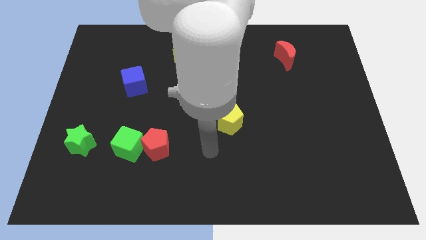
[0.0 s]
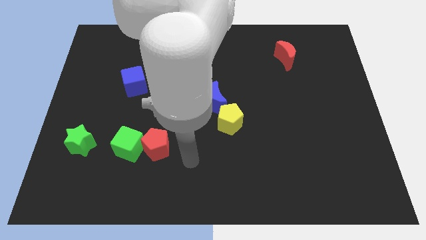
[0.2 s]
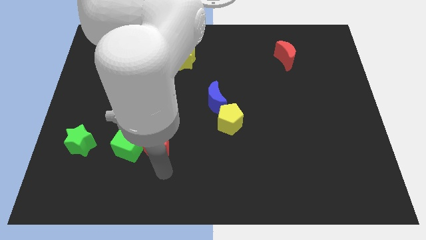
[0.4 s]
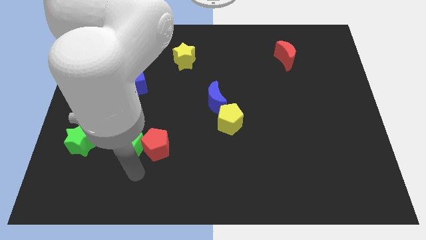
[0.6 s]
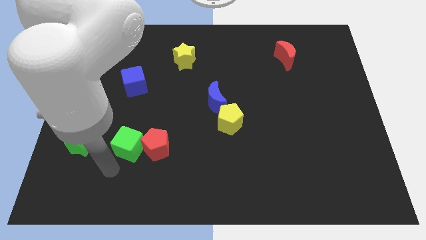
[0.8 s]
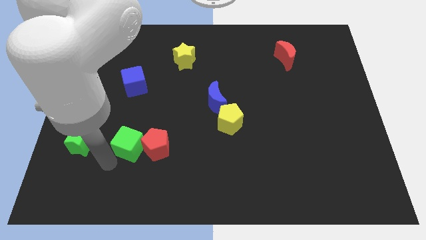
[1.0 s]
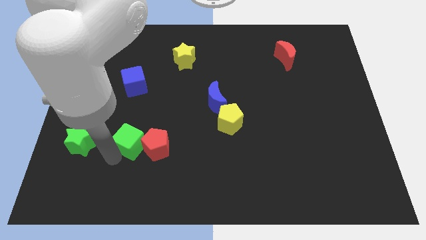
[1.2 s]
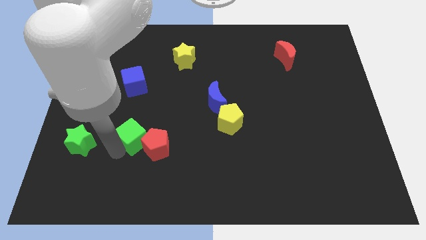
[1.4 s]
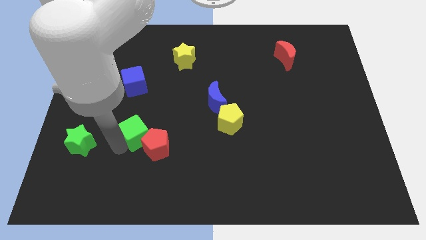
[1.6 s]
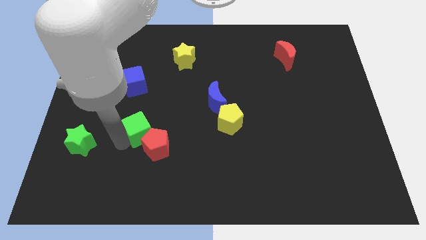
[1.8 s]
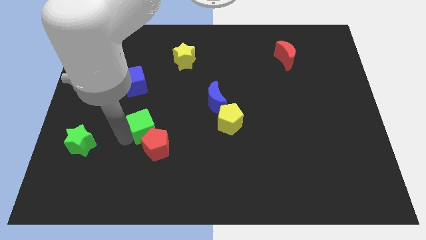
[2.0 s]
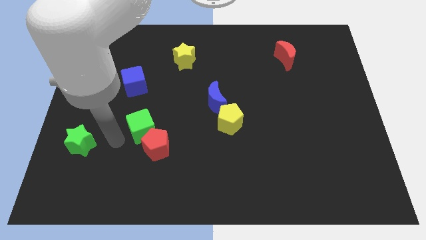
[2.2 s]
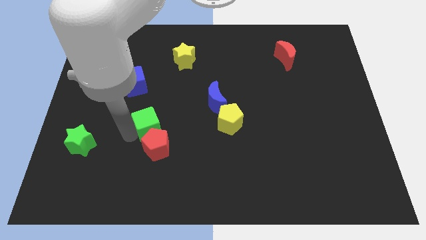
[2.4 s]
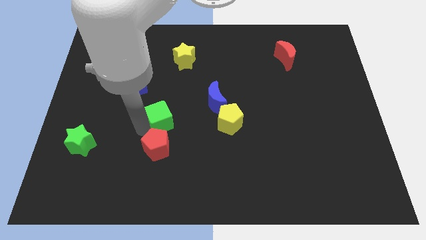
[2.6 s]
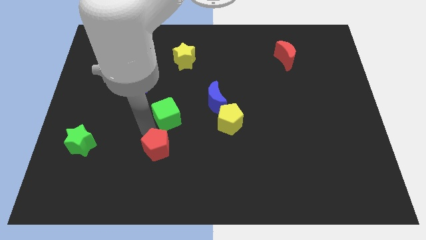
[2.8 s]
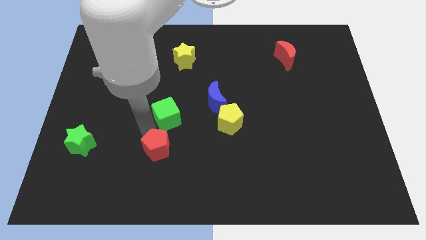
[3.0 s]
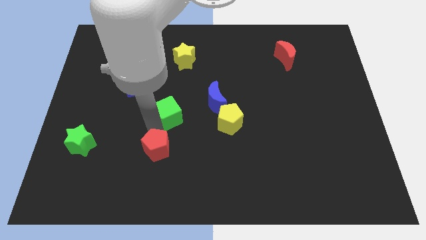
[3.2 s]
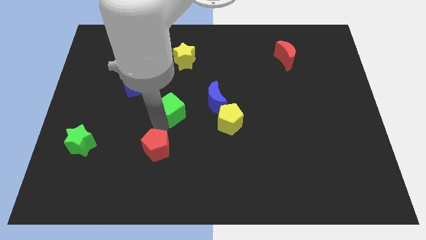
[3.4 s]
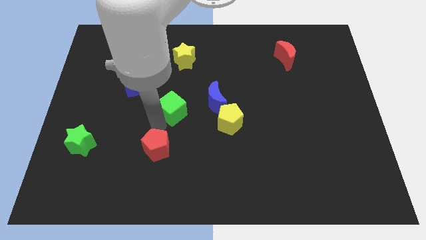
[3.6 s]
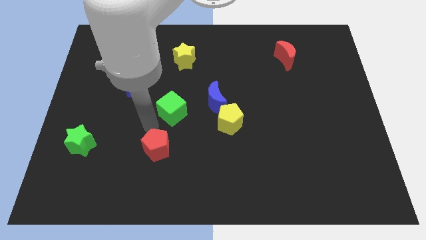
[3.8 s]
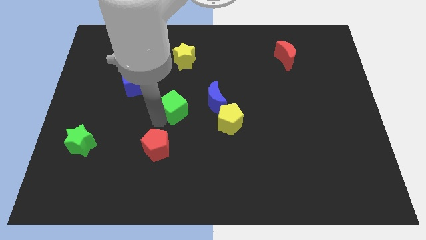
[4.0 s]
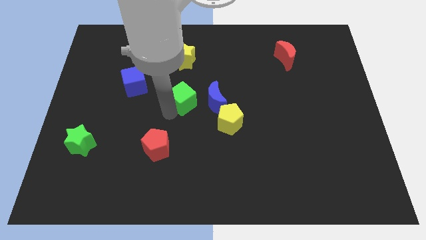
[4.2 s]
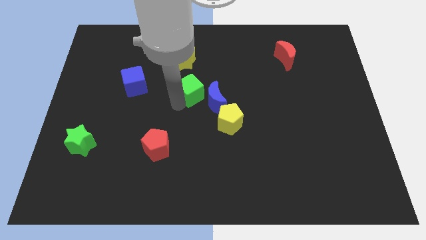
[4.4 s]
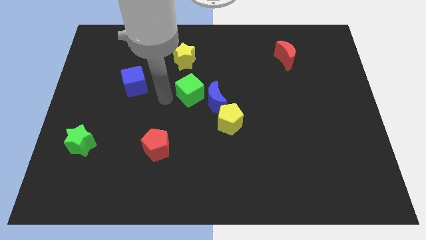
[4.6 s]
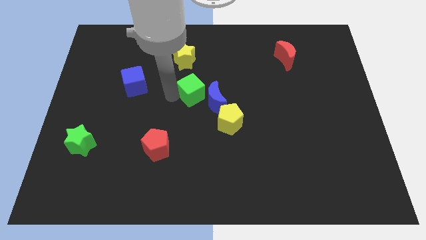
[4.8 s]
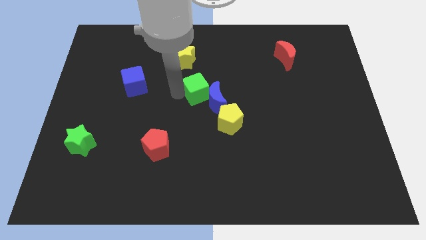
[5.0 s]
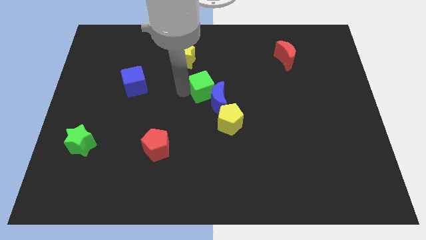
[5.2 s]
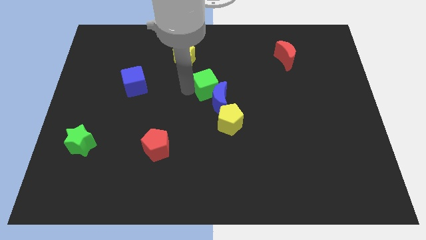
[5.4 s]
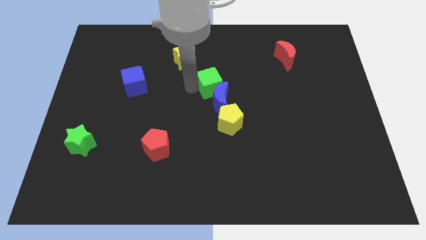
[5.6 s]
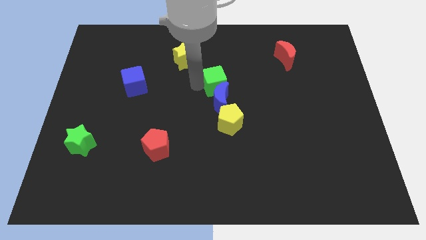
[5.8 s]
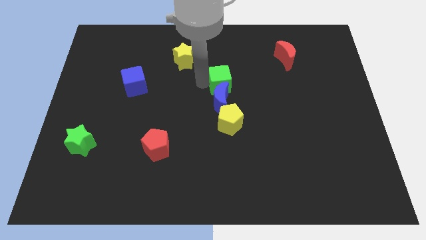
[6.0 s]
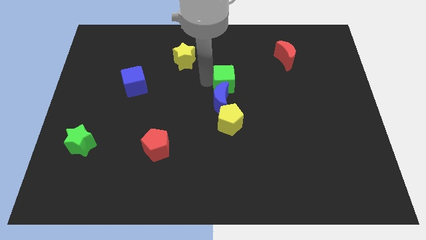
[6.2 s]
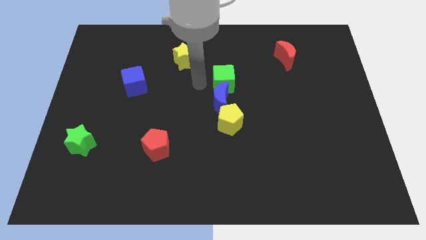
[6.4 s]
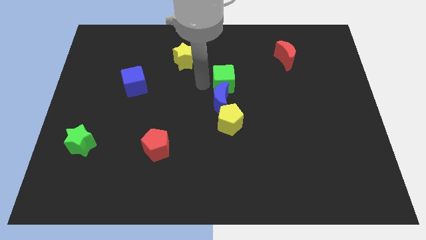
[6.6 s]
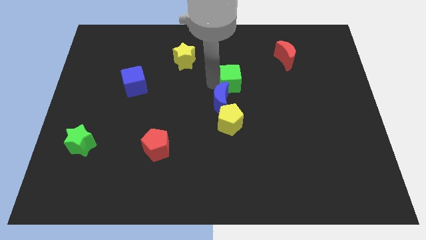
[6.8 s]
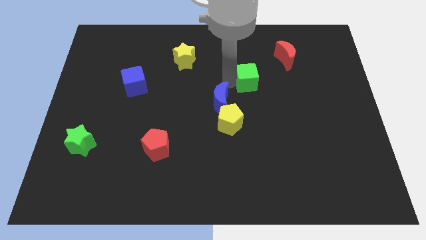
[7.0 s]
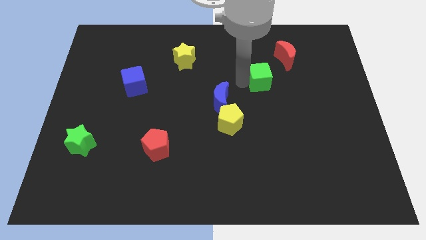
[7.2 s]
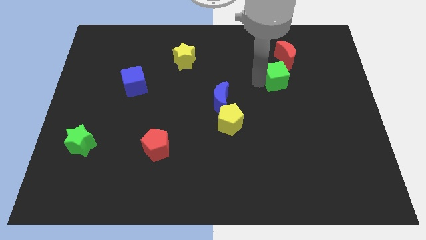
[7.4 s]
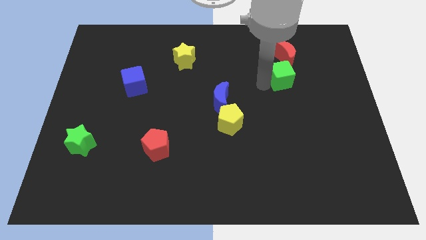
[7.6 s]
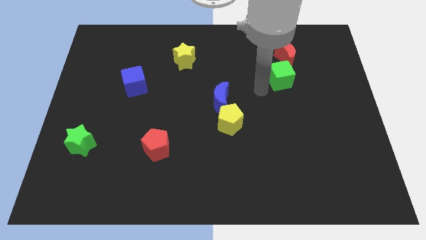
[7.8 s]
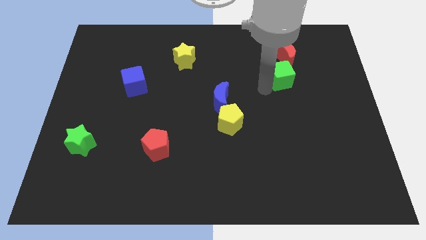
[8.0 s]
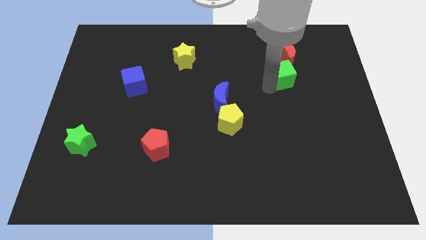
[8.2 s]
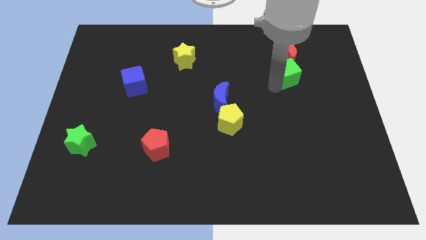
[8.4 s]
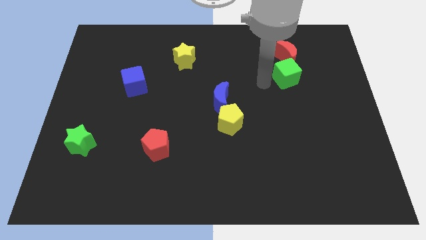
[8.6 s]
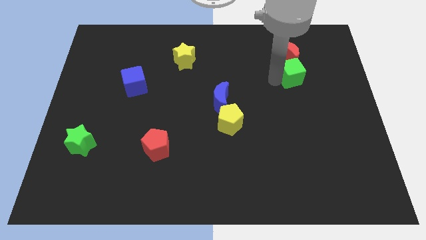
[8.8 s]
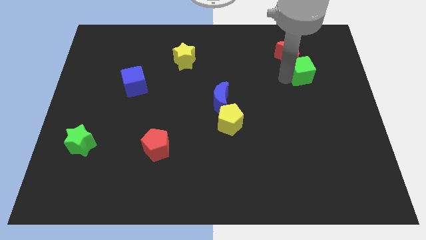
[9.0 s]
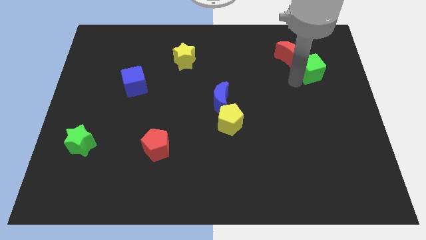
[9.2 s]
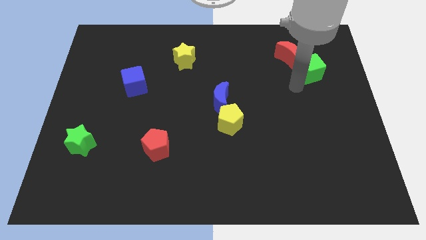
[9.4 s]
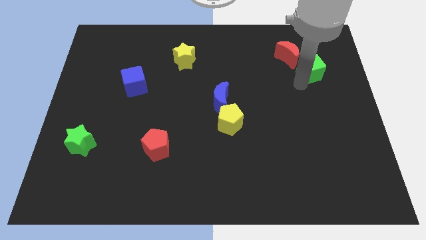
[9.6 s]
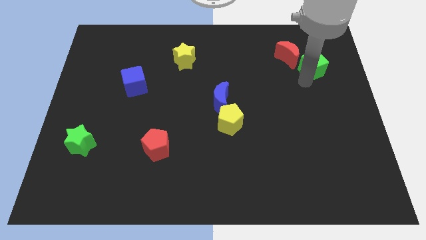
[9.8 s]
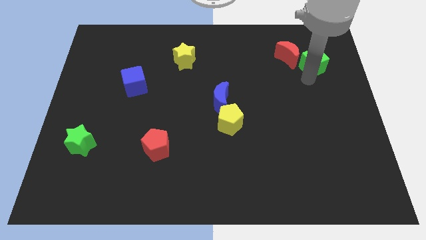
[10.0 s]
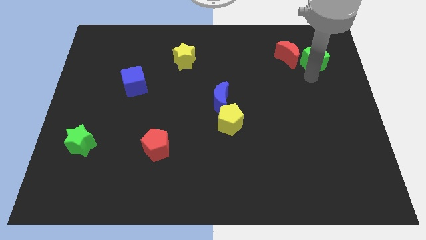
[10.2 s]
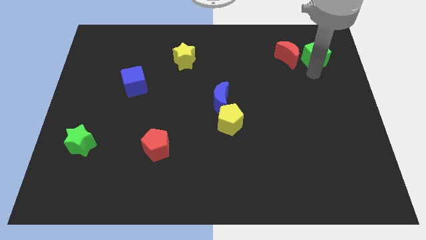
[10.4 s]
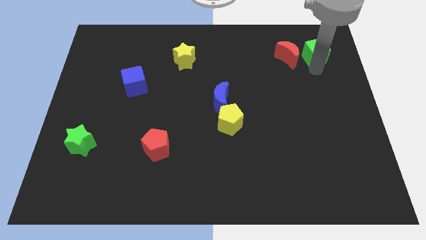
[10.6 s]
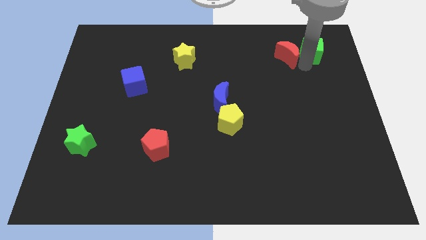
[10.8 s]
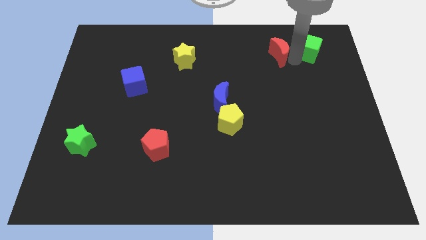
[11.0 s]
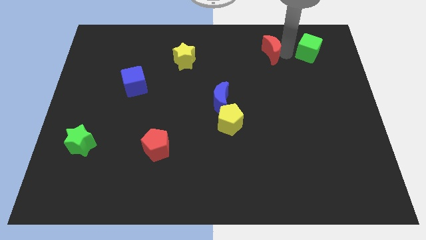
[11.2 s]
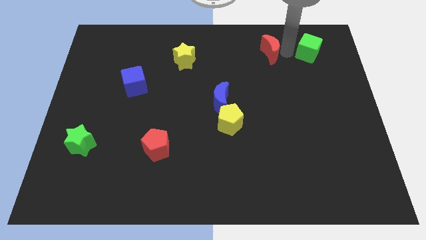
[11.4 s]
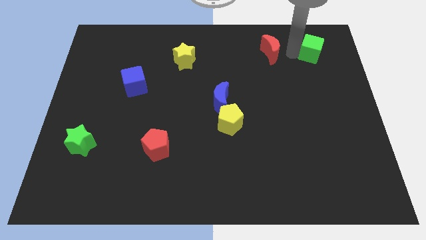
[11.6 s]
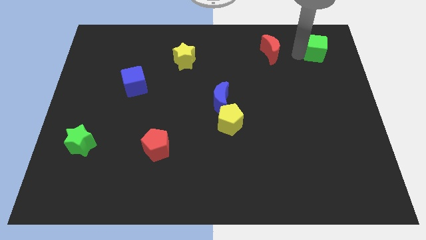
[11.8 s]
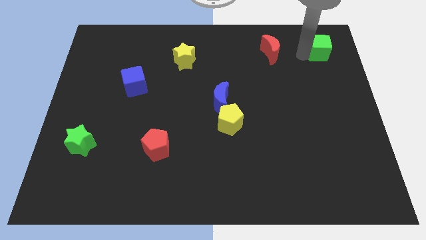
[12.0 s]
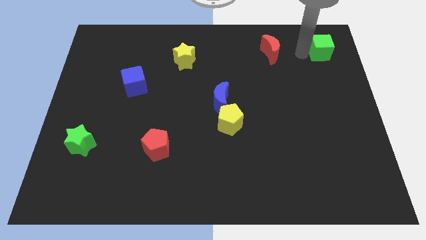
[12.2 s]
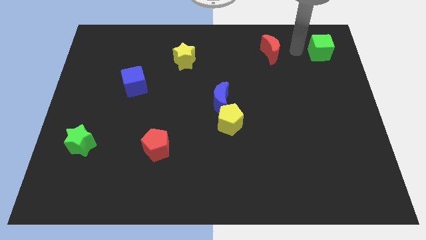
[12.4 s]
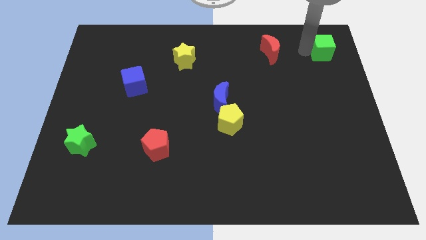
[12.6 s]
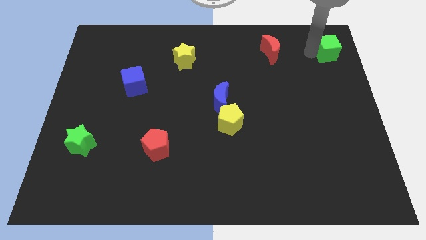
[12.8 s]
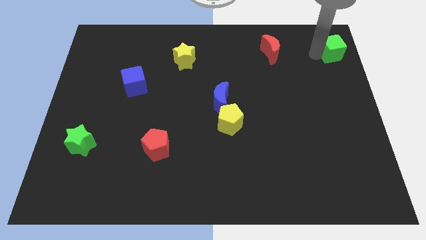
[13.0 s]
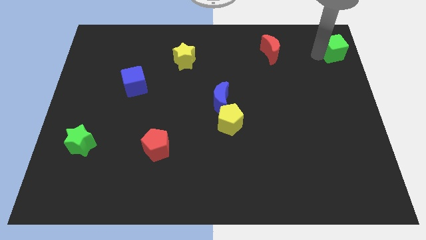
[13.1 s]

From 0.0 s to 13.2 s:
push the green cube to the top right of the board

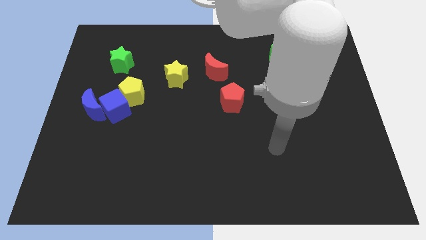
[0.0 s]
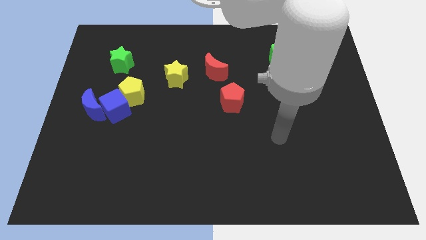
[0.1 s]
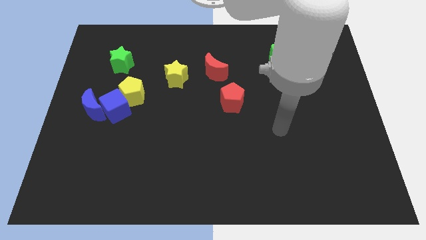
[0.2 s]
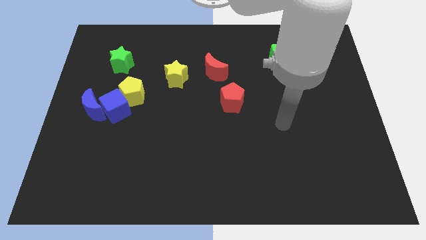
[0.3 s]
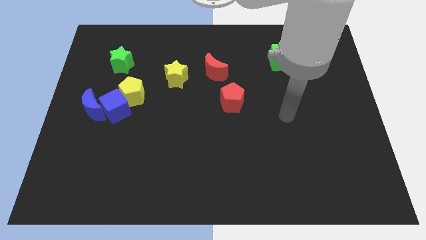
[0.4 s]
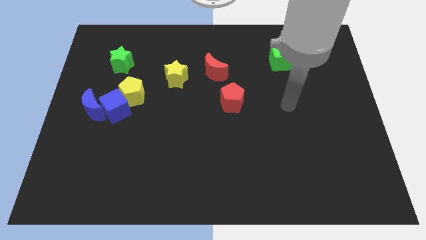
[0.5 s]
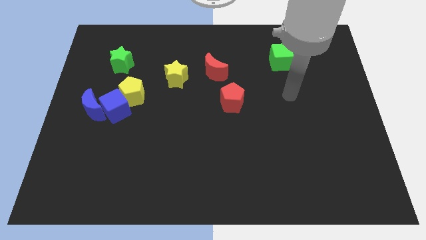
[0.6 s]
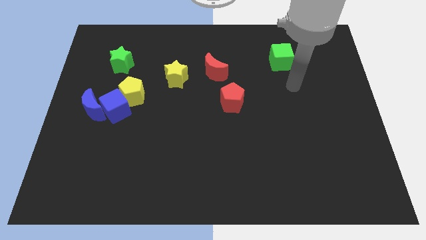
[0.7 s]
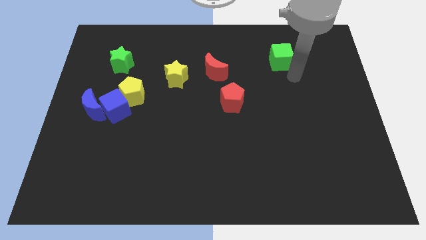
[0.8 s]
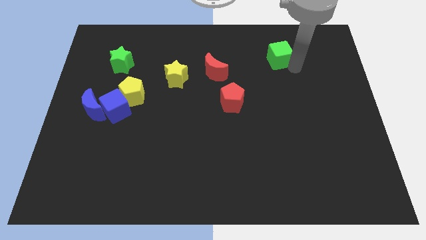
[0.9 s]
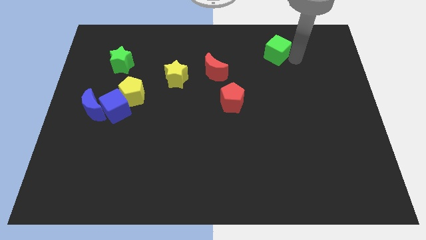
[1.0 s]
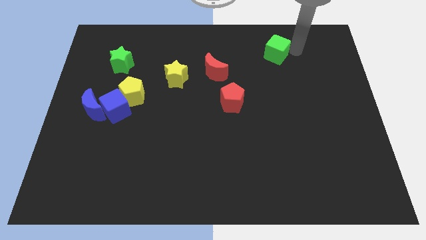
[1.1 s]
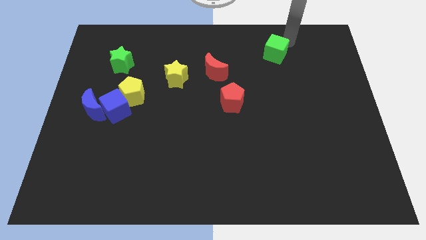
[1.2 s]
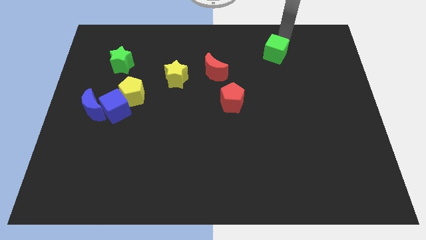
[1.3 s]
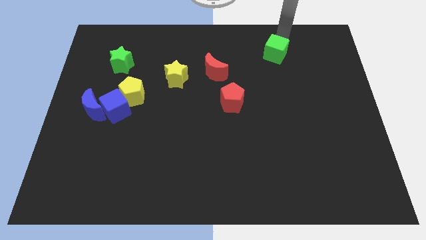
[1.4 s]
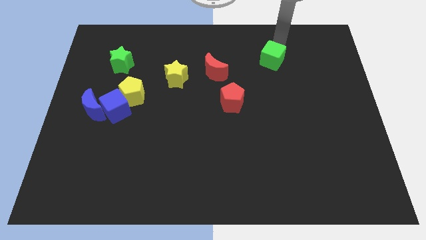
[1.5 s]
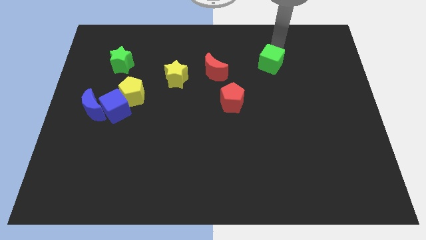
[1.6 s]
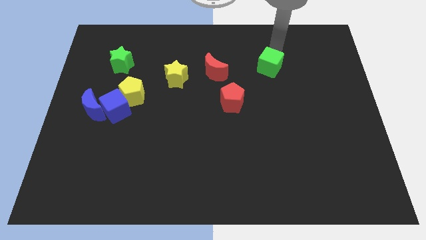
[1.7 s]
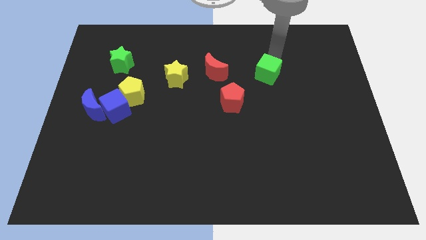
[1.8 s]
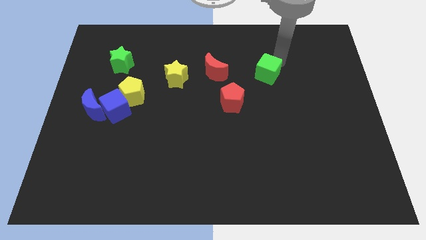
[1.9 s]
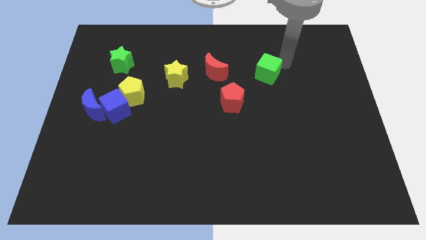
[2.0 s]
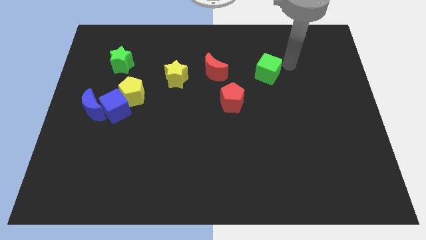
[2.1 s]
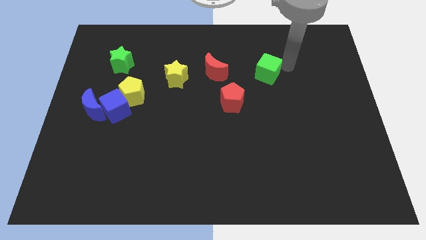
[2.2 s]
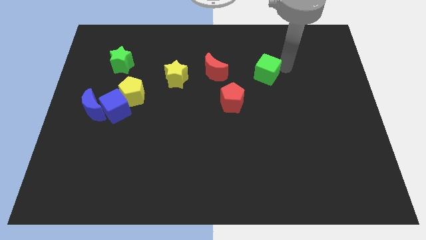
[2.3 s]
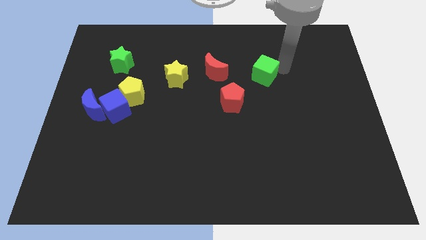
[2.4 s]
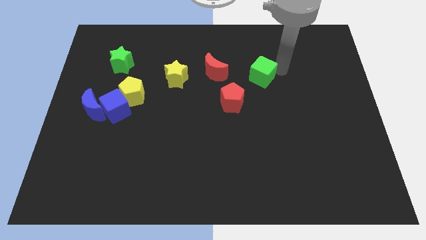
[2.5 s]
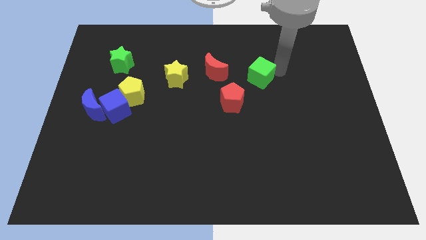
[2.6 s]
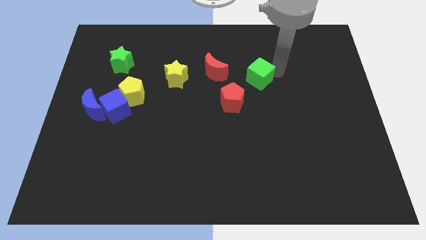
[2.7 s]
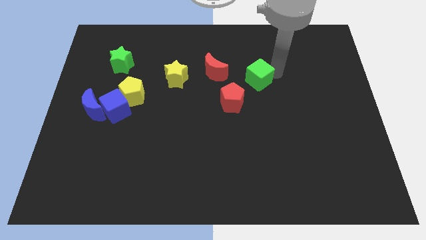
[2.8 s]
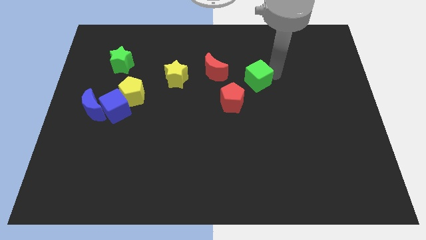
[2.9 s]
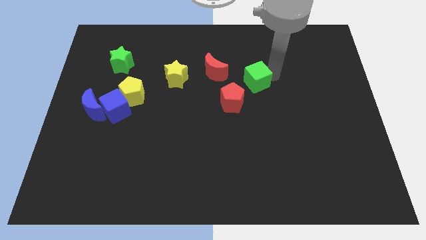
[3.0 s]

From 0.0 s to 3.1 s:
push the green cube to the middle of the board
